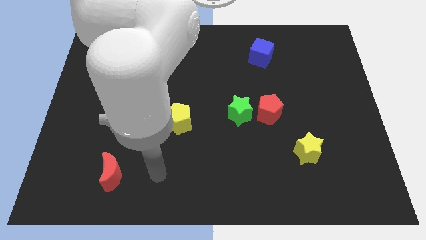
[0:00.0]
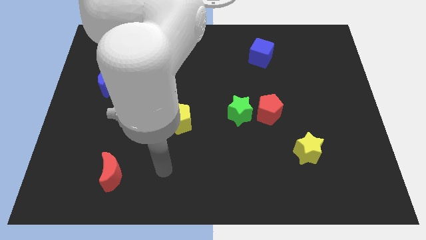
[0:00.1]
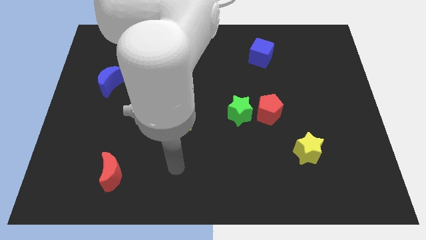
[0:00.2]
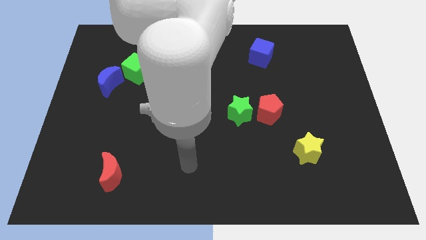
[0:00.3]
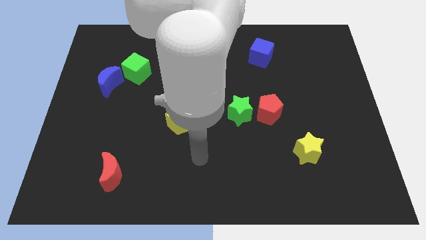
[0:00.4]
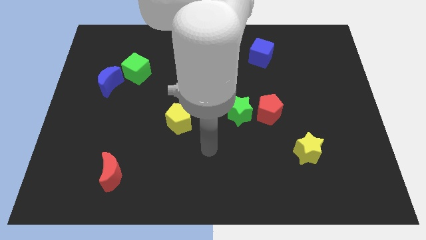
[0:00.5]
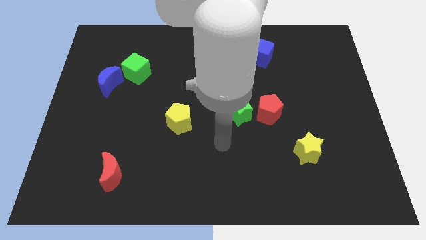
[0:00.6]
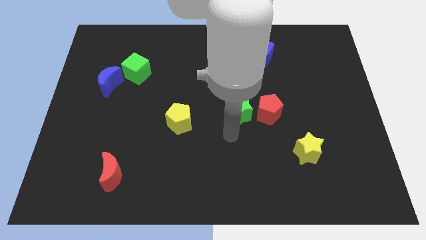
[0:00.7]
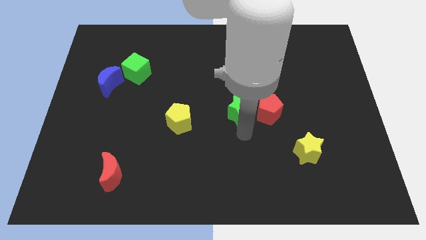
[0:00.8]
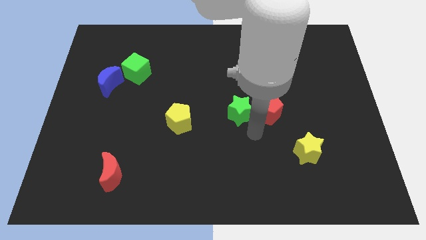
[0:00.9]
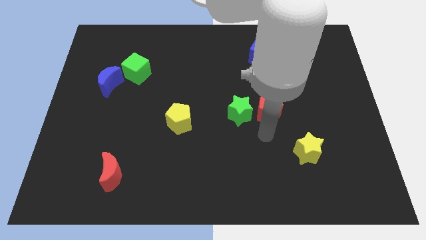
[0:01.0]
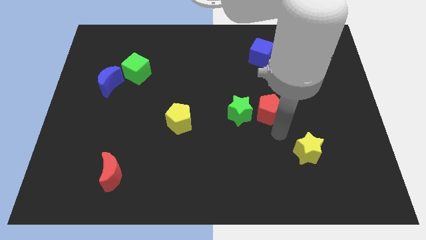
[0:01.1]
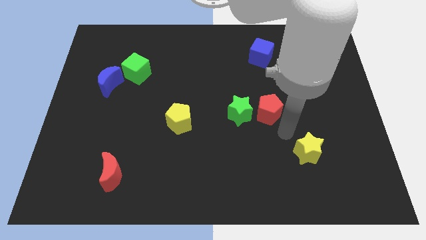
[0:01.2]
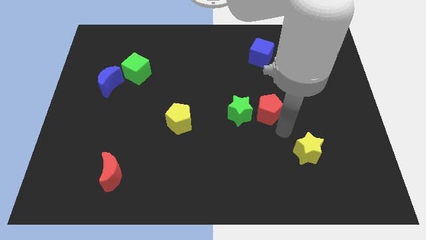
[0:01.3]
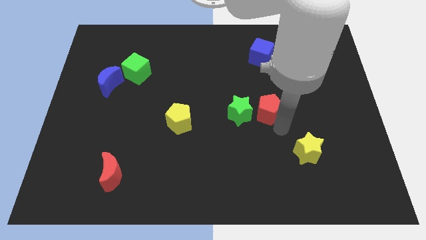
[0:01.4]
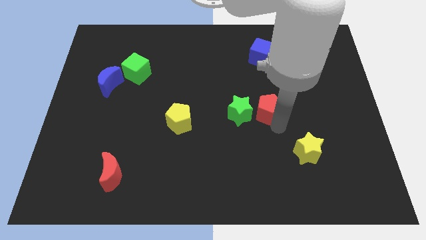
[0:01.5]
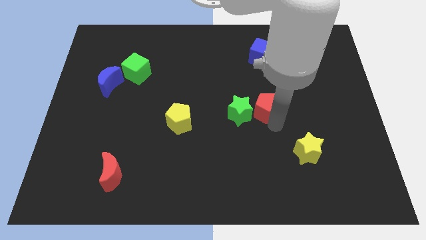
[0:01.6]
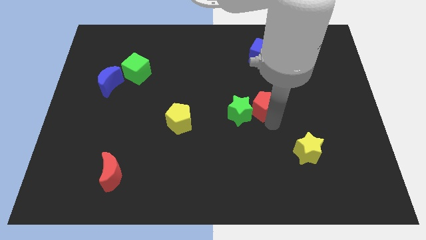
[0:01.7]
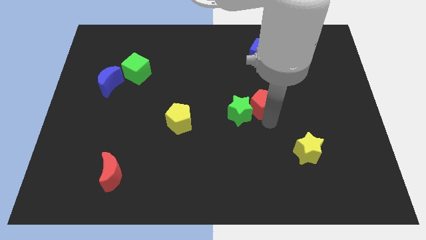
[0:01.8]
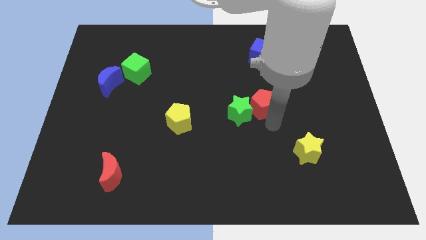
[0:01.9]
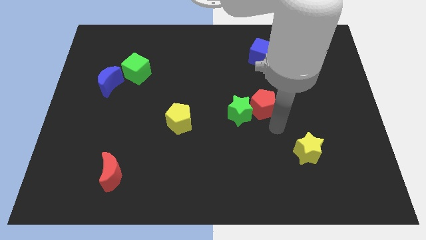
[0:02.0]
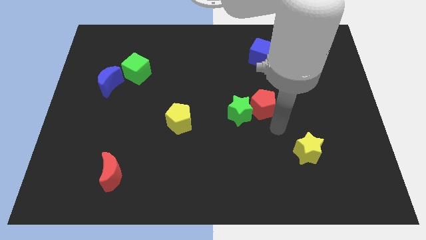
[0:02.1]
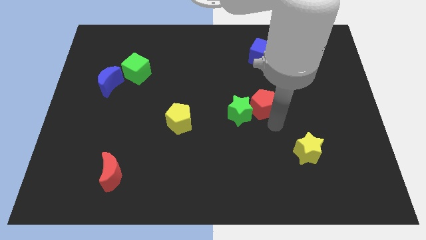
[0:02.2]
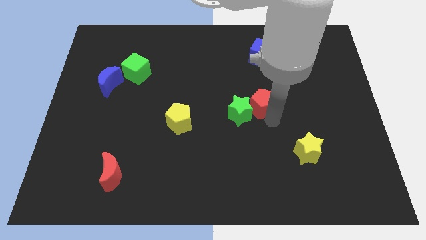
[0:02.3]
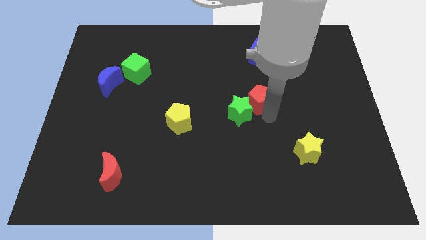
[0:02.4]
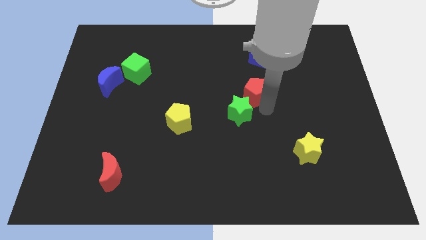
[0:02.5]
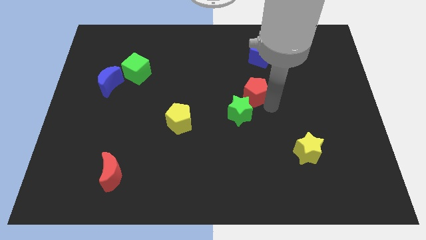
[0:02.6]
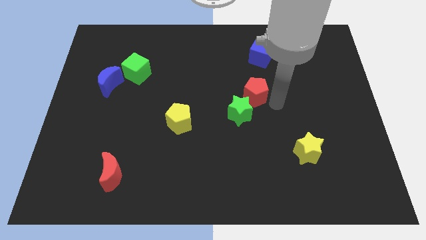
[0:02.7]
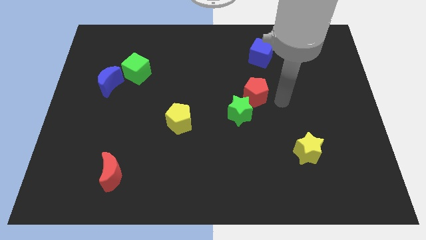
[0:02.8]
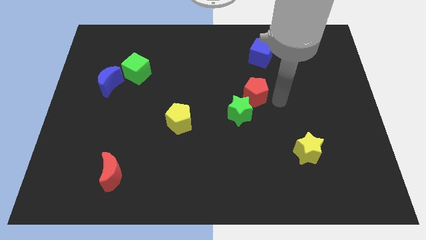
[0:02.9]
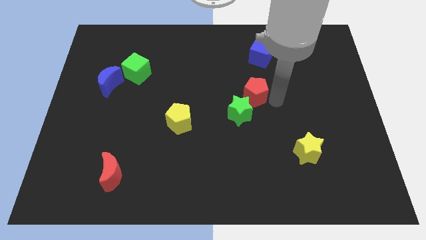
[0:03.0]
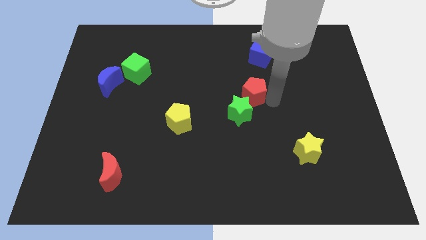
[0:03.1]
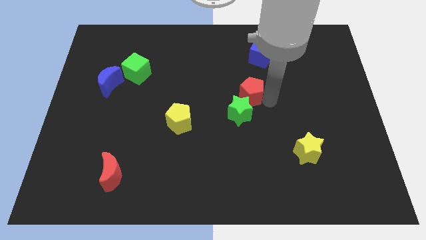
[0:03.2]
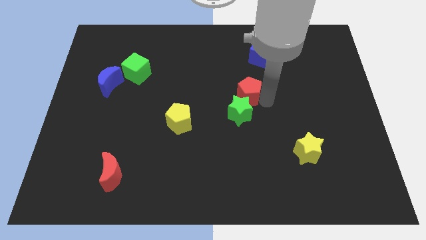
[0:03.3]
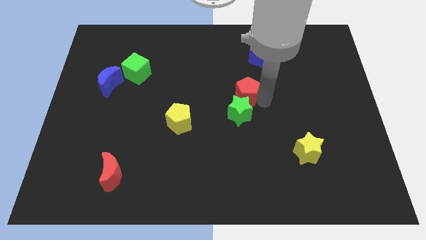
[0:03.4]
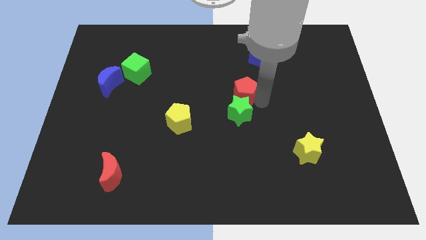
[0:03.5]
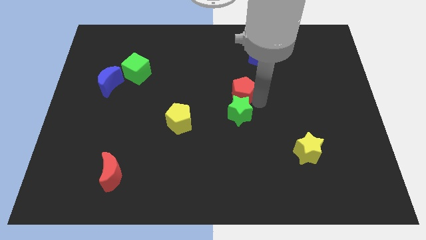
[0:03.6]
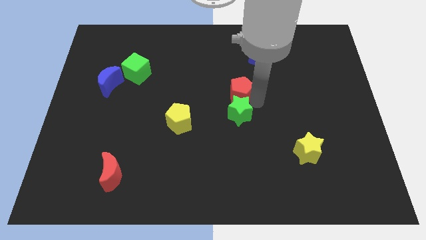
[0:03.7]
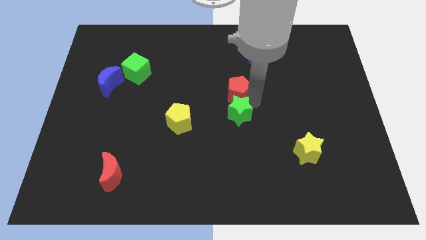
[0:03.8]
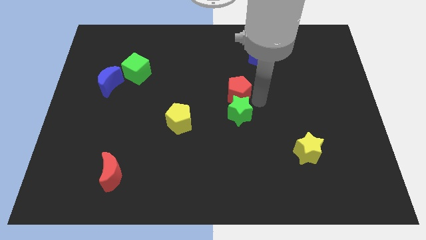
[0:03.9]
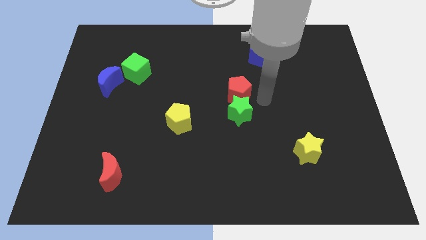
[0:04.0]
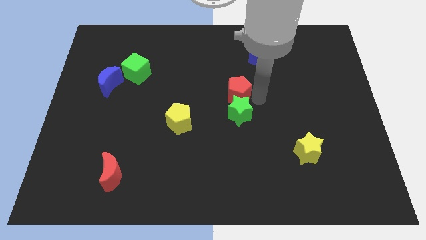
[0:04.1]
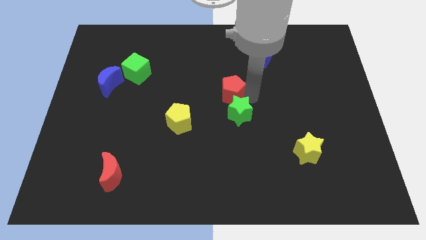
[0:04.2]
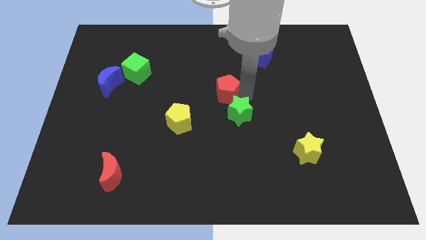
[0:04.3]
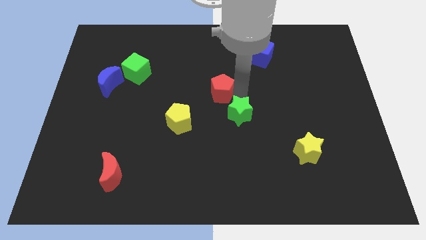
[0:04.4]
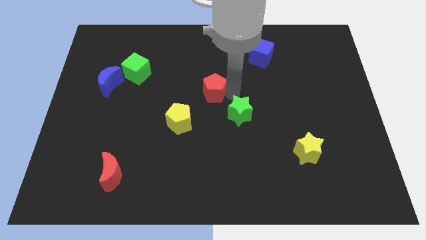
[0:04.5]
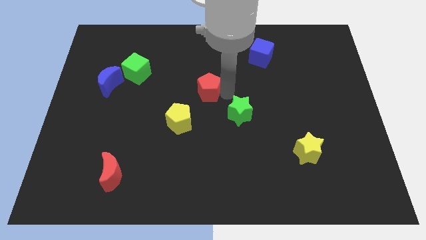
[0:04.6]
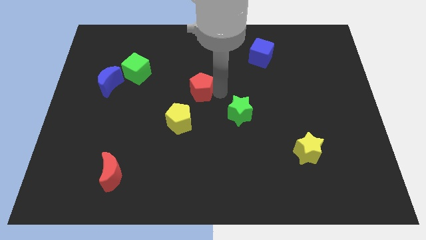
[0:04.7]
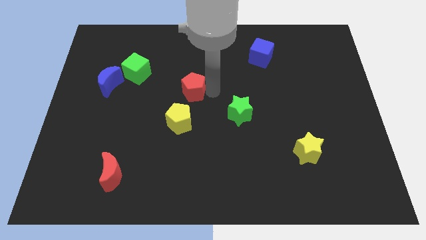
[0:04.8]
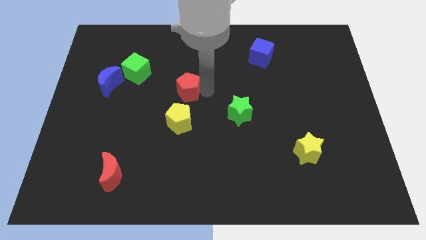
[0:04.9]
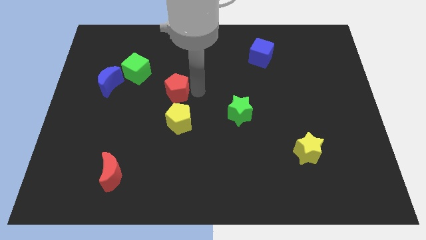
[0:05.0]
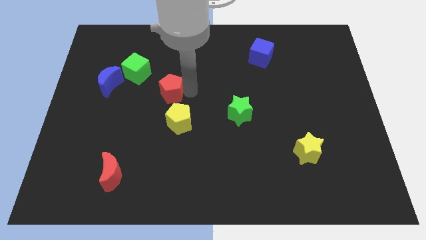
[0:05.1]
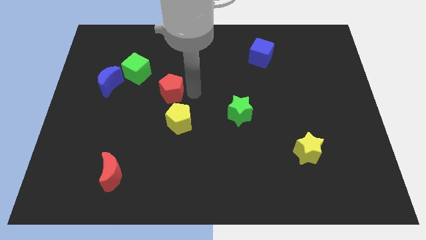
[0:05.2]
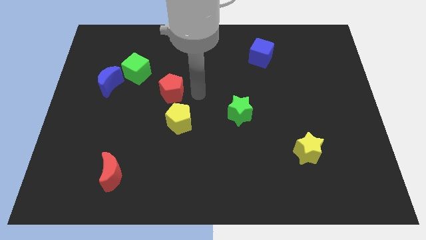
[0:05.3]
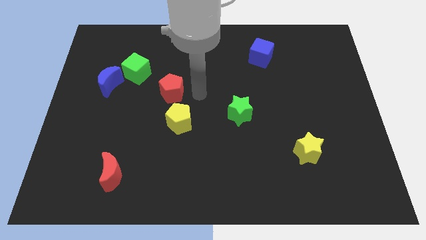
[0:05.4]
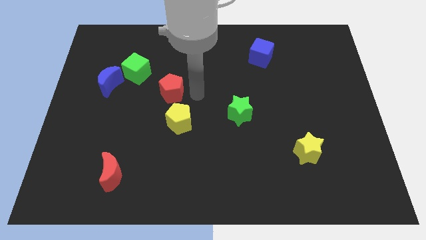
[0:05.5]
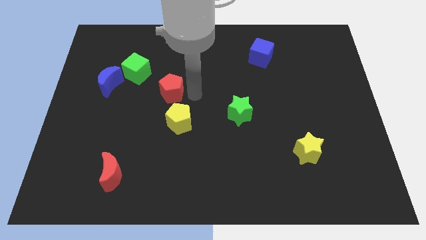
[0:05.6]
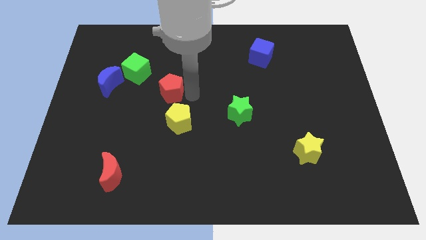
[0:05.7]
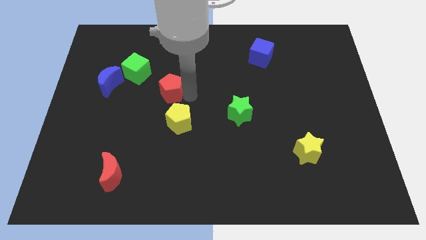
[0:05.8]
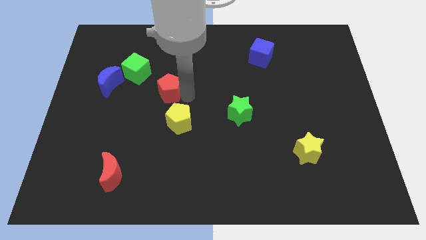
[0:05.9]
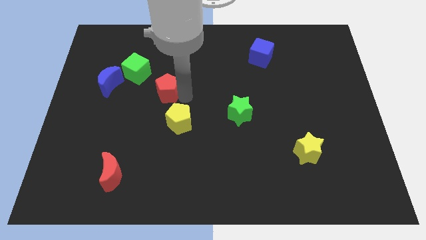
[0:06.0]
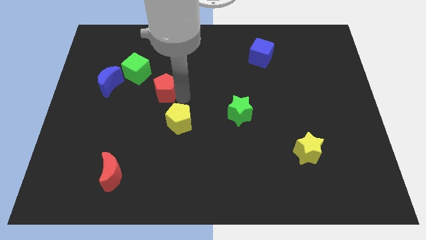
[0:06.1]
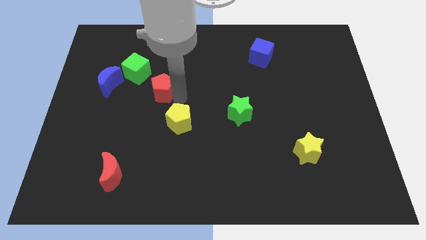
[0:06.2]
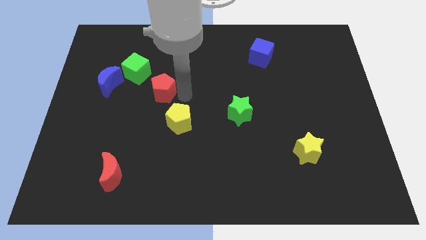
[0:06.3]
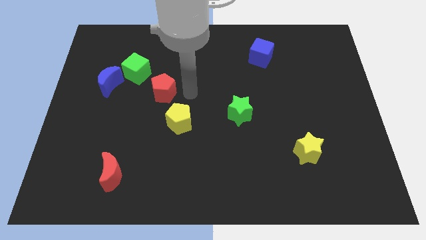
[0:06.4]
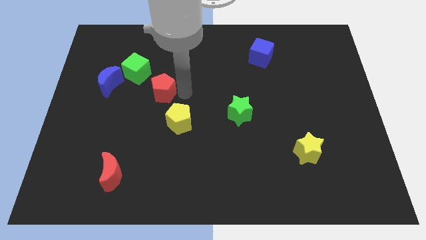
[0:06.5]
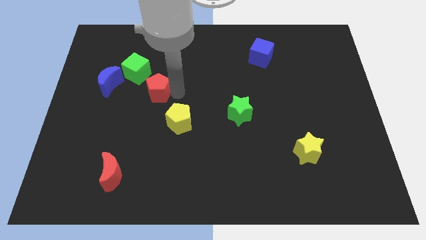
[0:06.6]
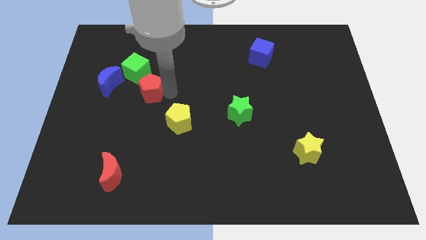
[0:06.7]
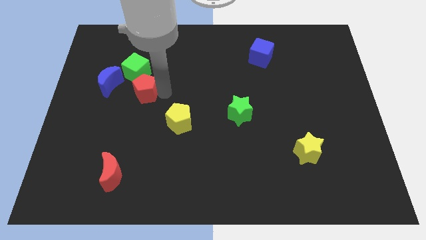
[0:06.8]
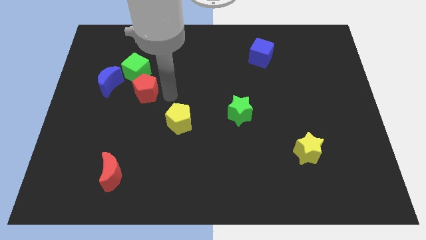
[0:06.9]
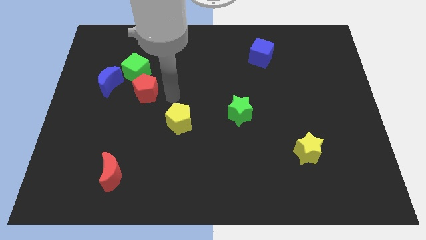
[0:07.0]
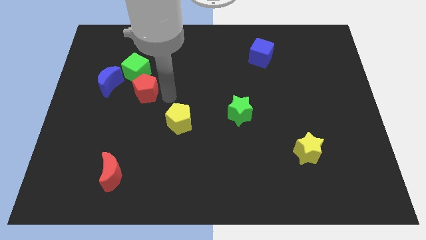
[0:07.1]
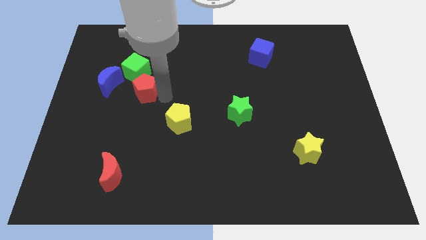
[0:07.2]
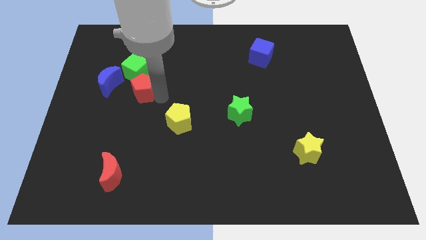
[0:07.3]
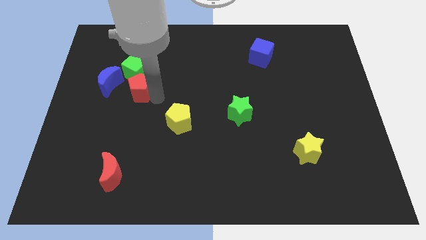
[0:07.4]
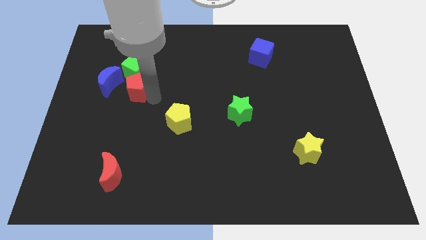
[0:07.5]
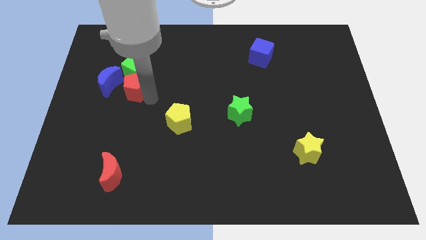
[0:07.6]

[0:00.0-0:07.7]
slide the red pentagon to the bottom left of the green cube

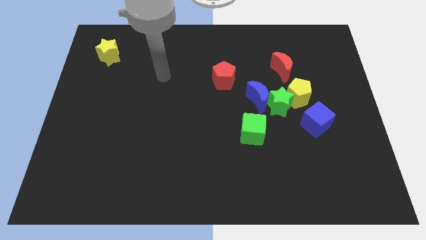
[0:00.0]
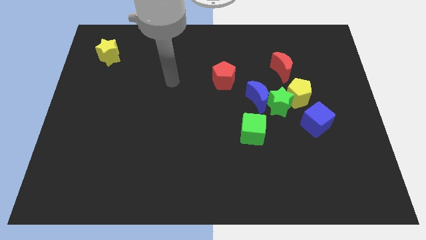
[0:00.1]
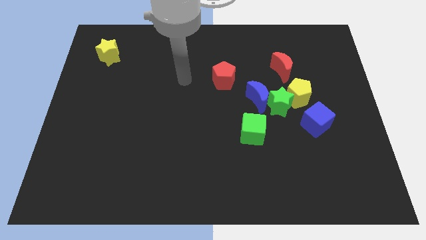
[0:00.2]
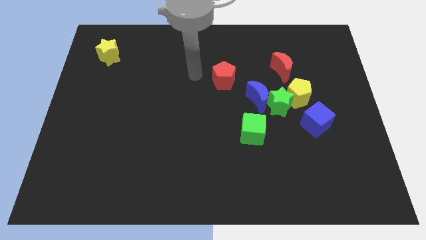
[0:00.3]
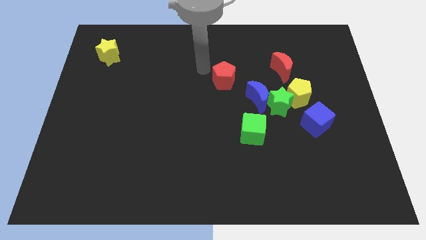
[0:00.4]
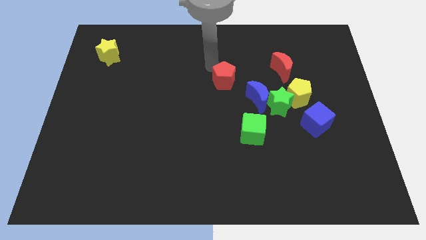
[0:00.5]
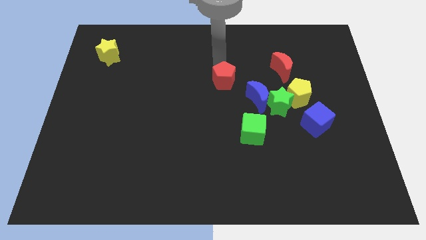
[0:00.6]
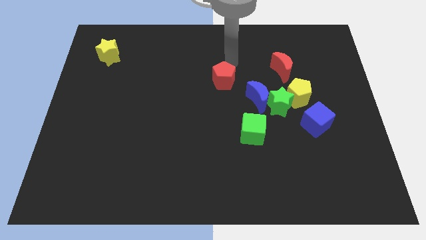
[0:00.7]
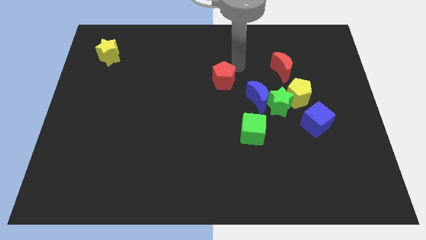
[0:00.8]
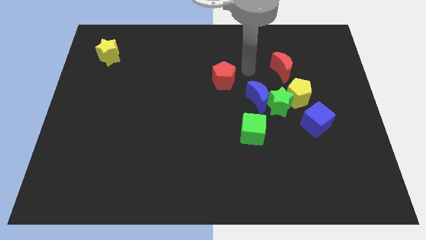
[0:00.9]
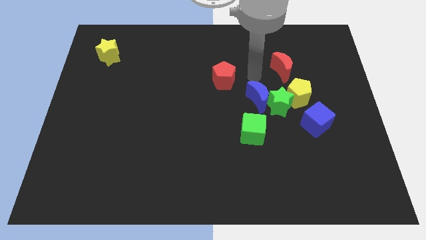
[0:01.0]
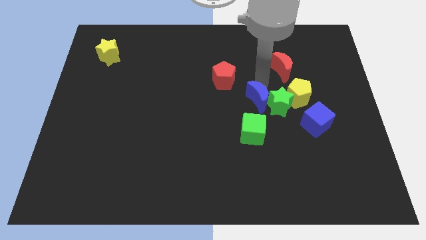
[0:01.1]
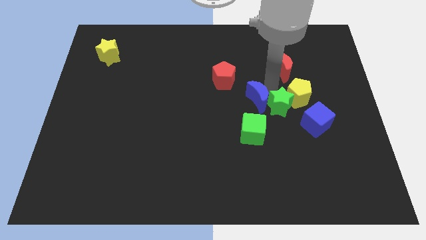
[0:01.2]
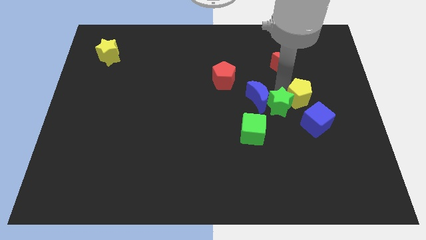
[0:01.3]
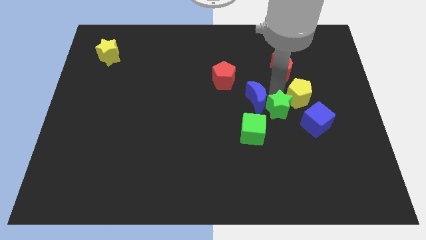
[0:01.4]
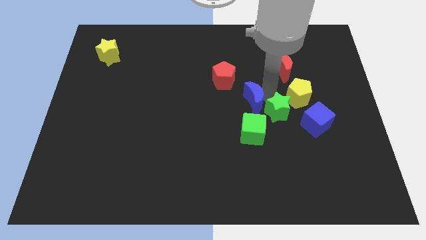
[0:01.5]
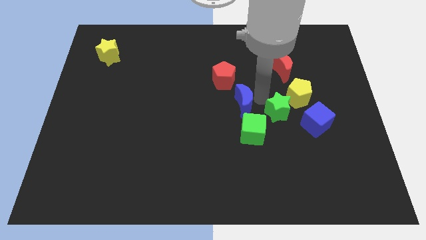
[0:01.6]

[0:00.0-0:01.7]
push the blue moon below the red pentagon
